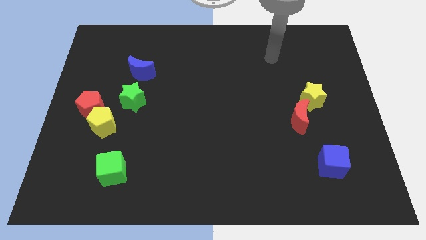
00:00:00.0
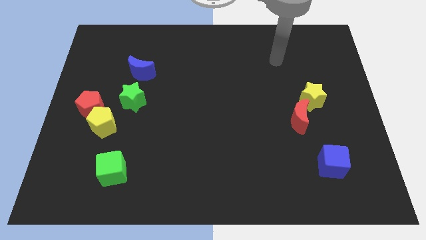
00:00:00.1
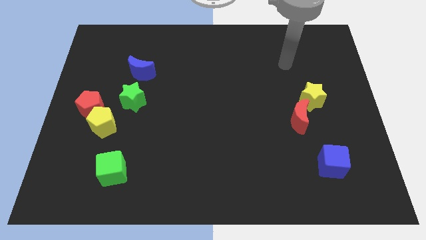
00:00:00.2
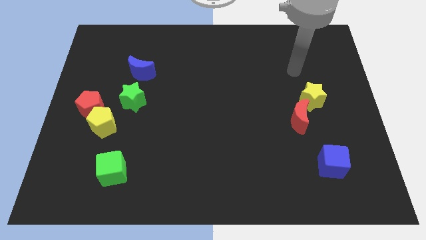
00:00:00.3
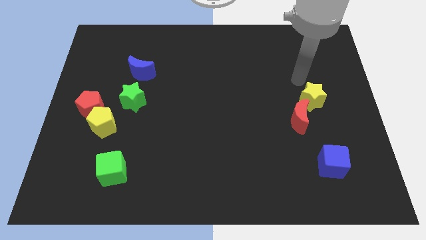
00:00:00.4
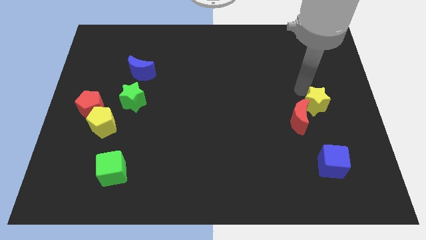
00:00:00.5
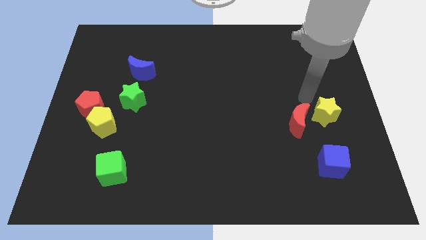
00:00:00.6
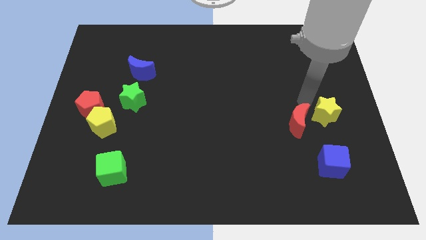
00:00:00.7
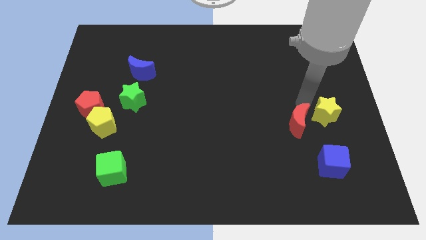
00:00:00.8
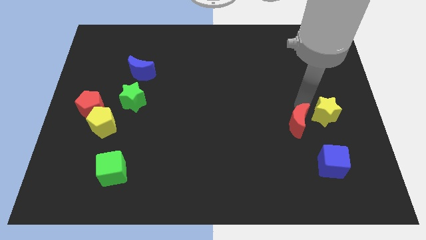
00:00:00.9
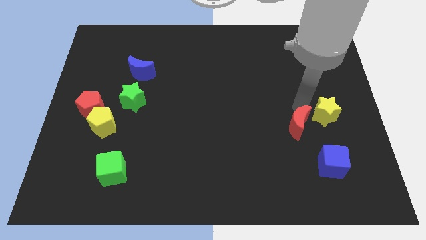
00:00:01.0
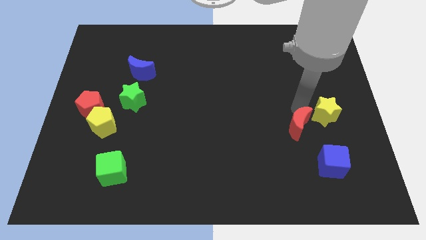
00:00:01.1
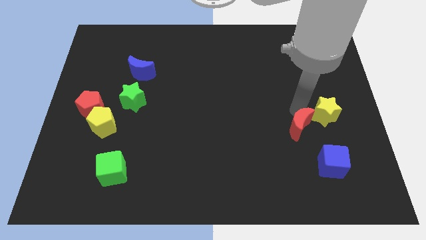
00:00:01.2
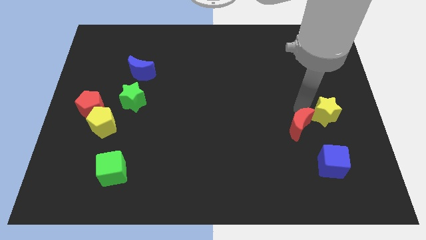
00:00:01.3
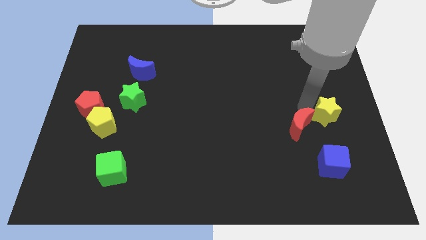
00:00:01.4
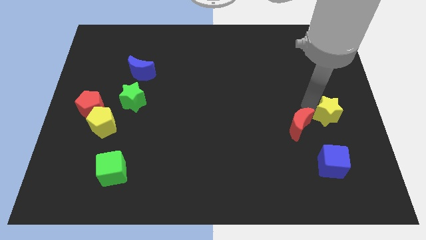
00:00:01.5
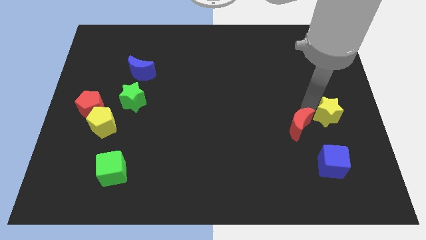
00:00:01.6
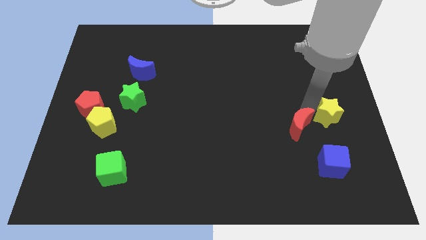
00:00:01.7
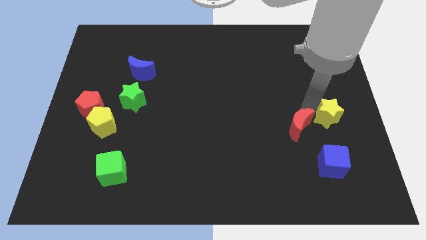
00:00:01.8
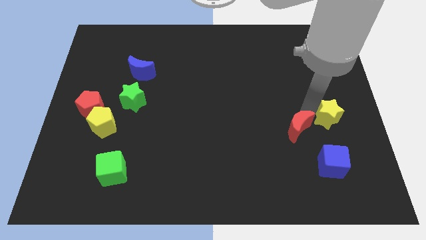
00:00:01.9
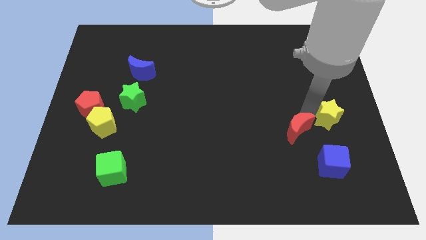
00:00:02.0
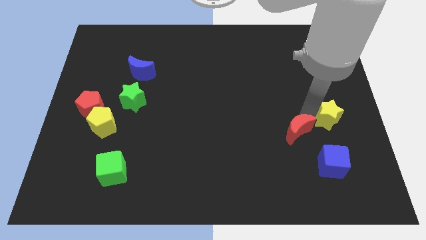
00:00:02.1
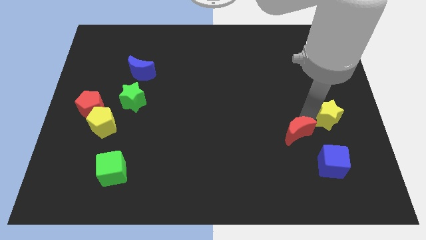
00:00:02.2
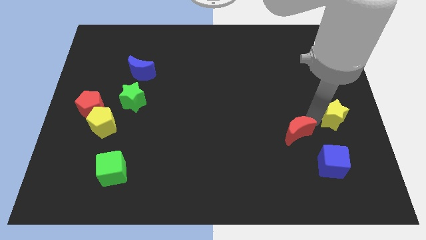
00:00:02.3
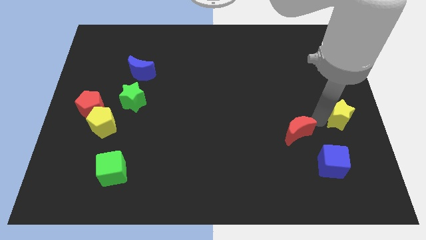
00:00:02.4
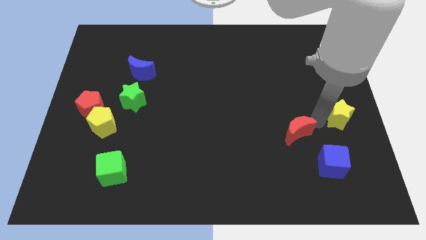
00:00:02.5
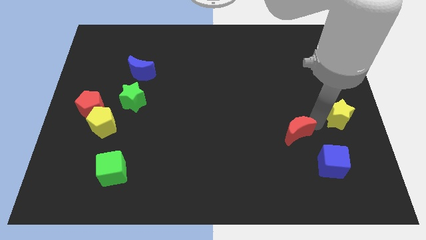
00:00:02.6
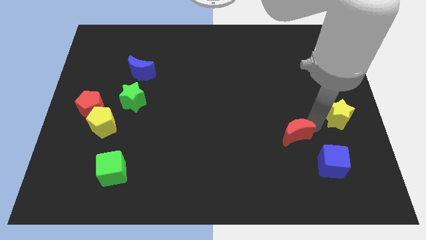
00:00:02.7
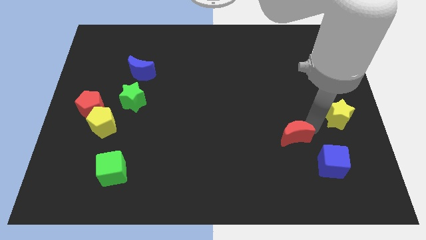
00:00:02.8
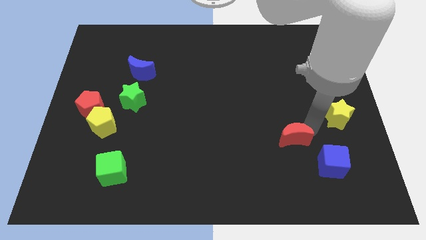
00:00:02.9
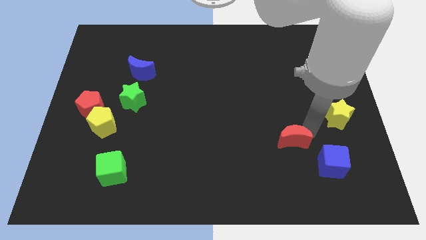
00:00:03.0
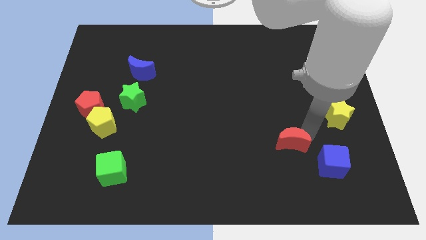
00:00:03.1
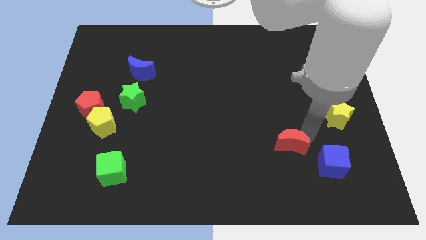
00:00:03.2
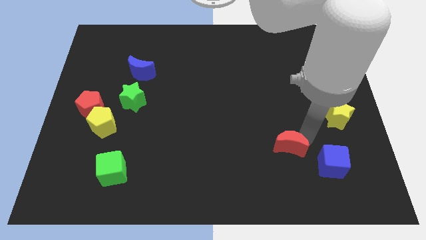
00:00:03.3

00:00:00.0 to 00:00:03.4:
move the red moon downwards and left somewhat

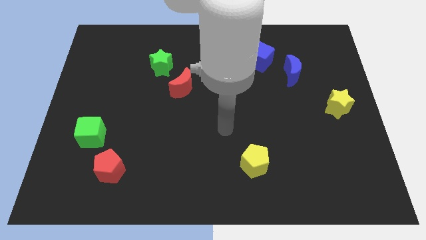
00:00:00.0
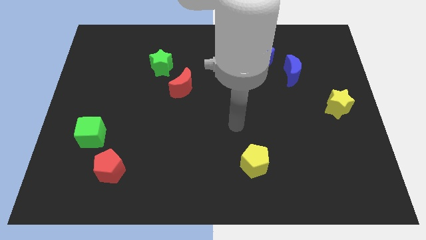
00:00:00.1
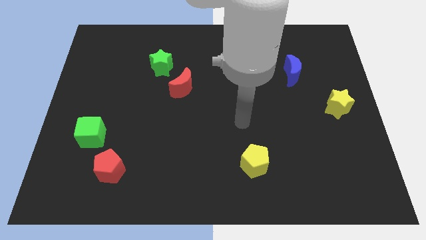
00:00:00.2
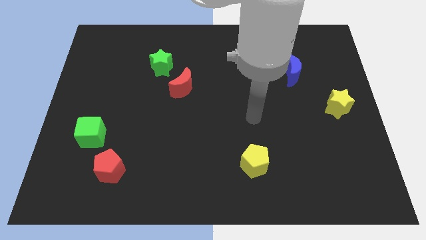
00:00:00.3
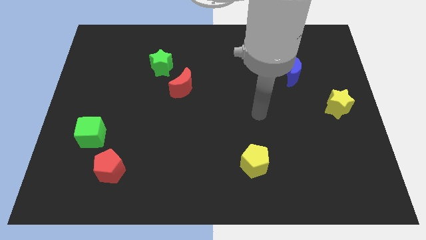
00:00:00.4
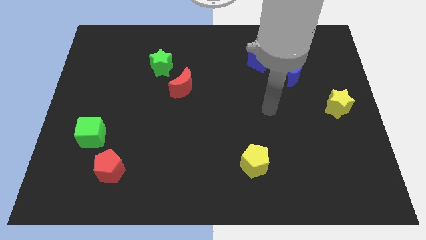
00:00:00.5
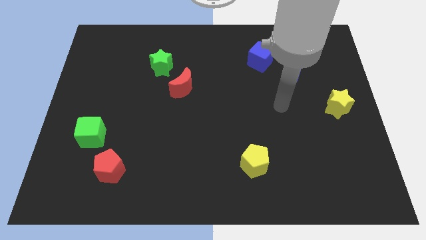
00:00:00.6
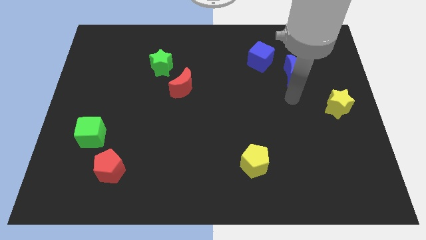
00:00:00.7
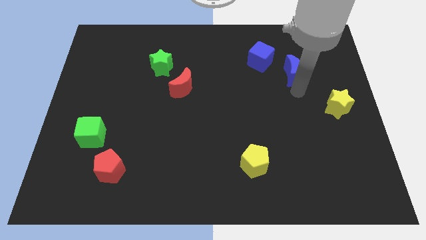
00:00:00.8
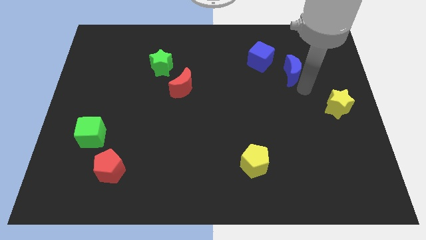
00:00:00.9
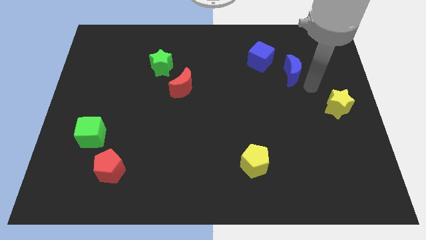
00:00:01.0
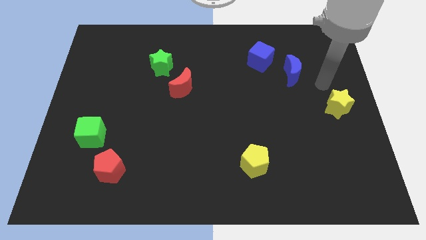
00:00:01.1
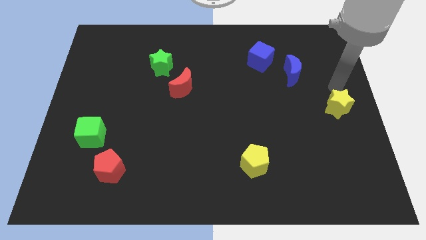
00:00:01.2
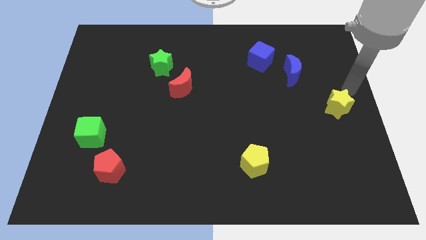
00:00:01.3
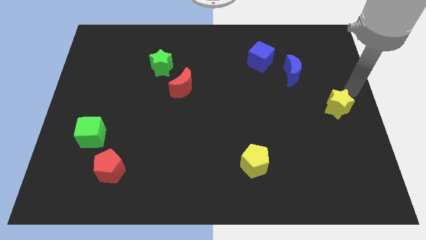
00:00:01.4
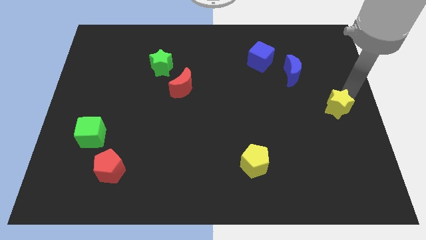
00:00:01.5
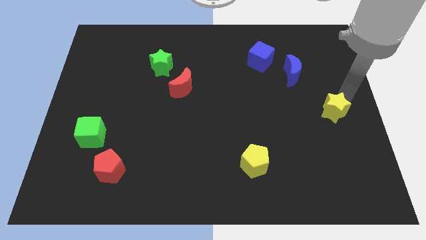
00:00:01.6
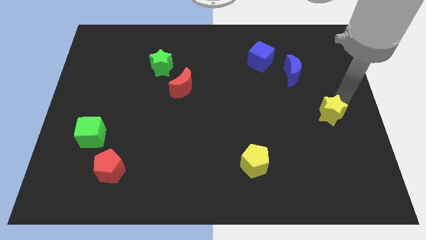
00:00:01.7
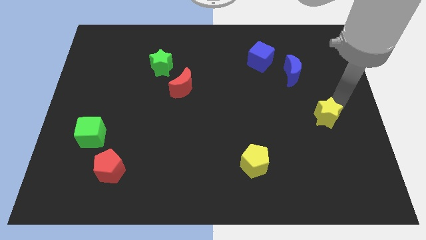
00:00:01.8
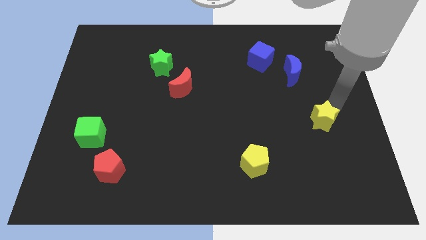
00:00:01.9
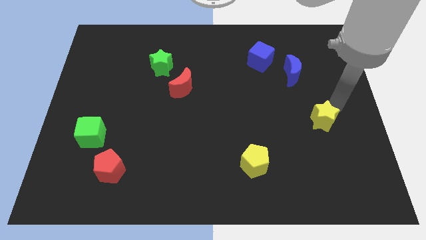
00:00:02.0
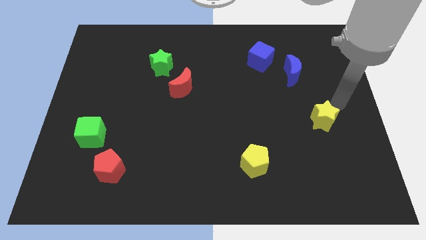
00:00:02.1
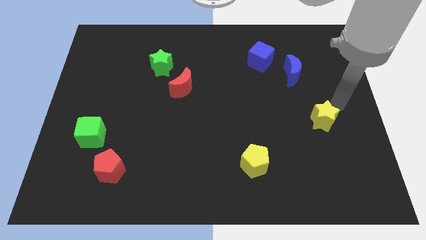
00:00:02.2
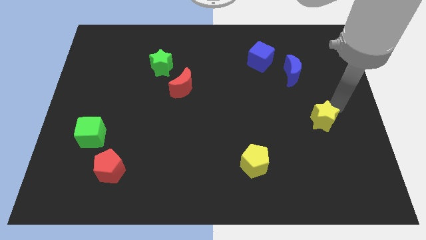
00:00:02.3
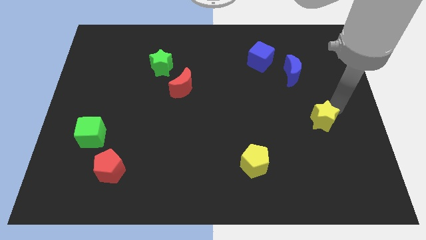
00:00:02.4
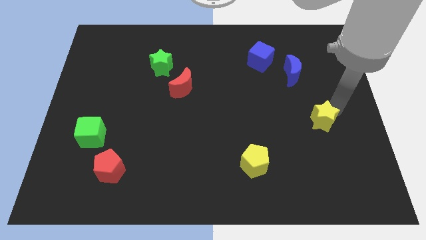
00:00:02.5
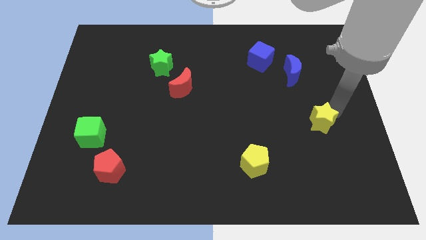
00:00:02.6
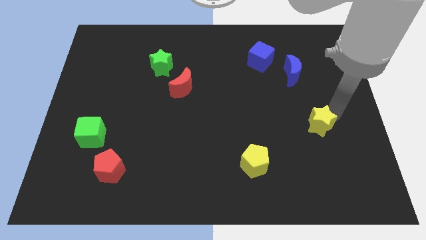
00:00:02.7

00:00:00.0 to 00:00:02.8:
move the yellow star slightly diagonally downwards and to the left

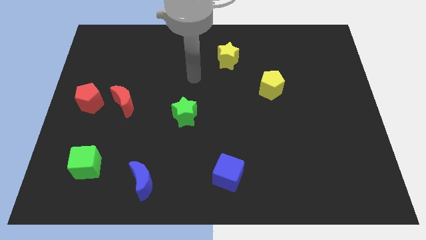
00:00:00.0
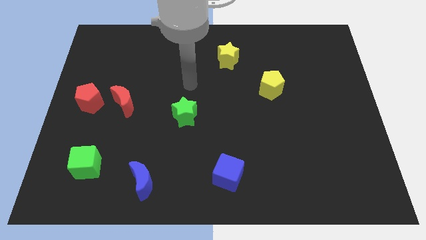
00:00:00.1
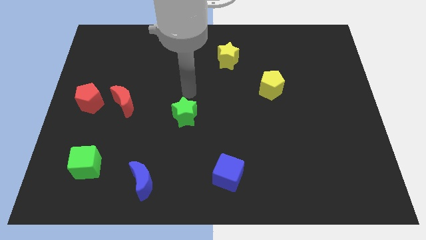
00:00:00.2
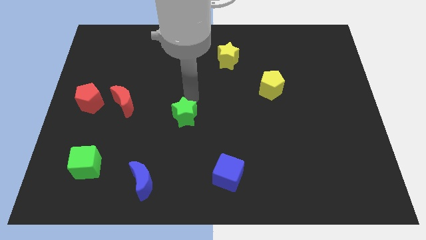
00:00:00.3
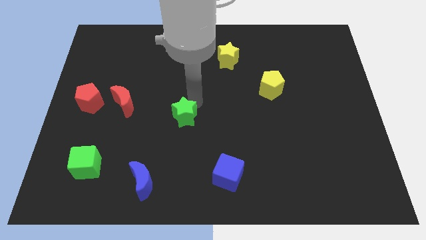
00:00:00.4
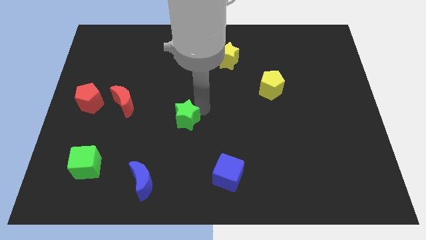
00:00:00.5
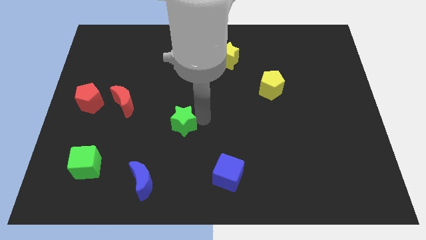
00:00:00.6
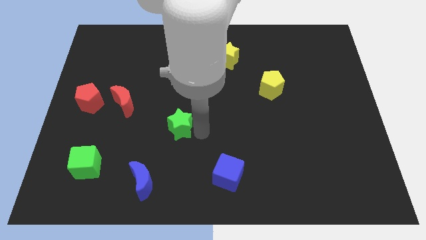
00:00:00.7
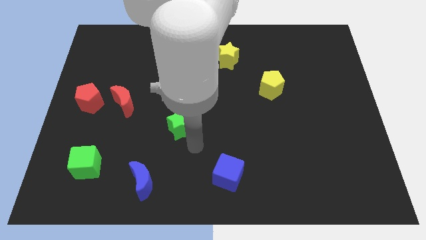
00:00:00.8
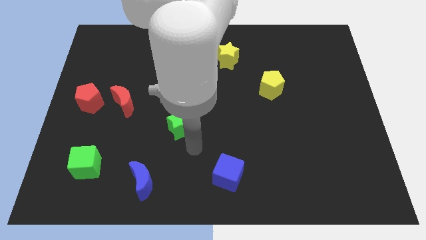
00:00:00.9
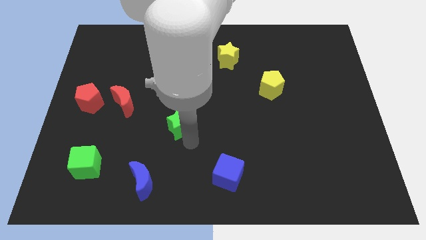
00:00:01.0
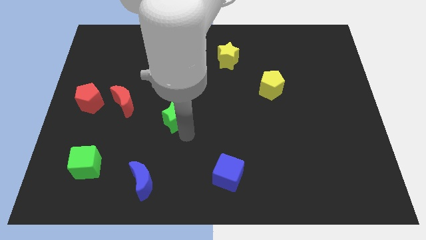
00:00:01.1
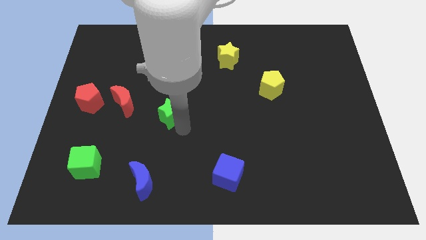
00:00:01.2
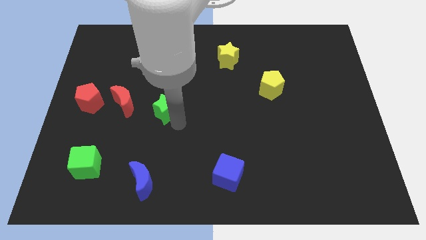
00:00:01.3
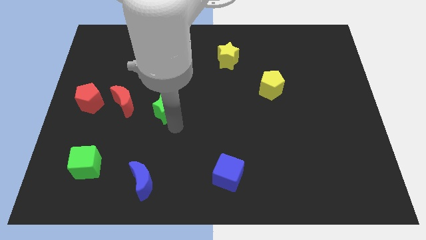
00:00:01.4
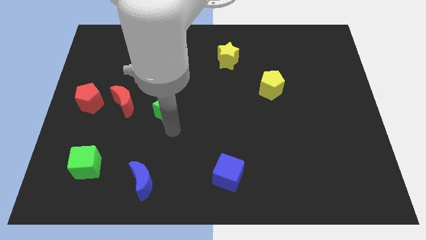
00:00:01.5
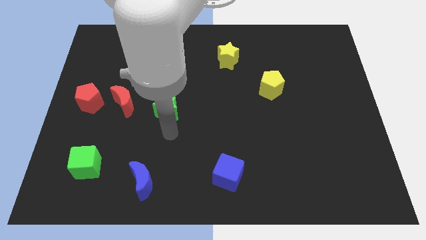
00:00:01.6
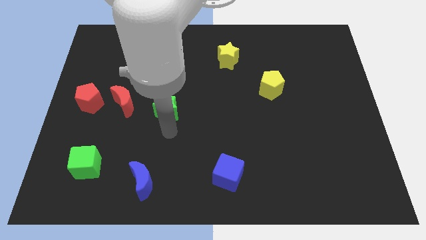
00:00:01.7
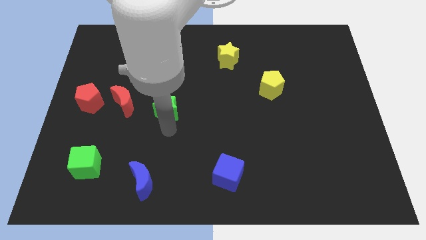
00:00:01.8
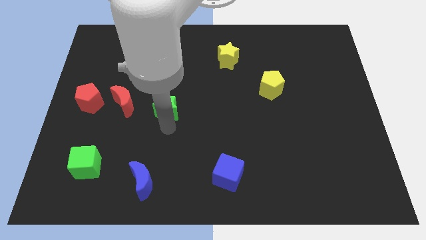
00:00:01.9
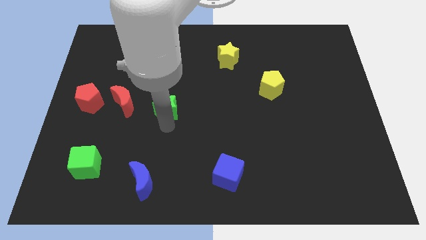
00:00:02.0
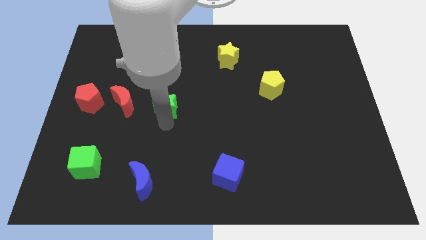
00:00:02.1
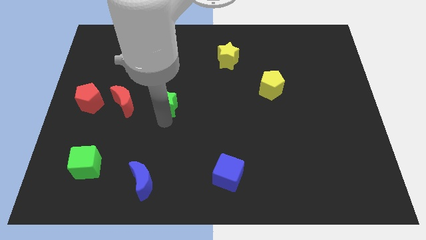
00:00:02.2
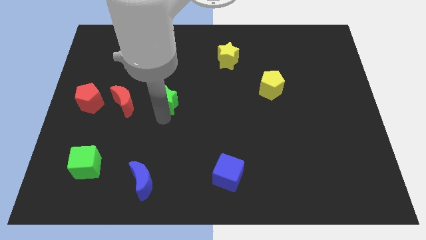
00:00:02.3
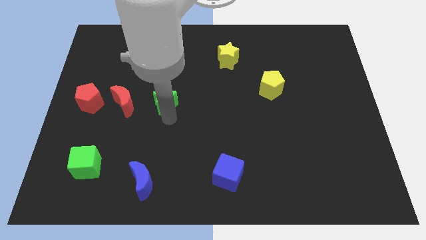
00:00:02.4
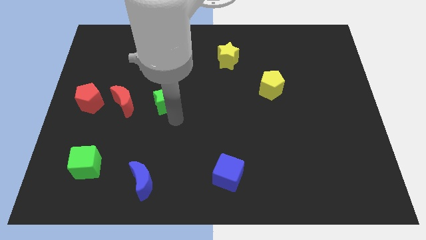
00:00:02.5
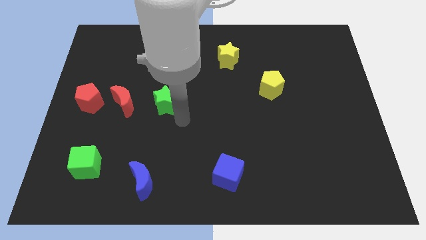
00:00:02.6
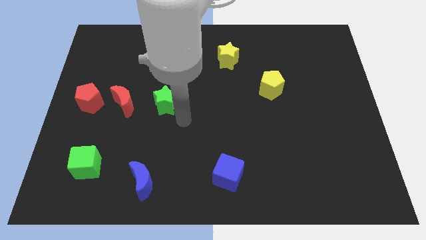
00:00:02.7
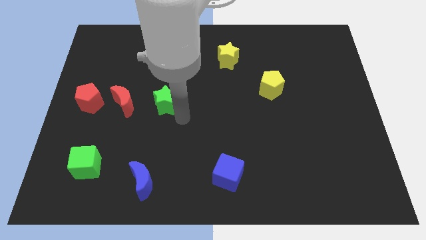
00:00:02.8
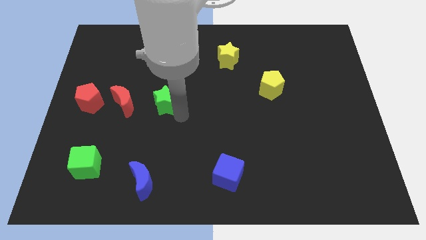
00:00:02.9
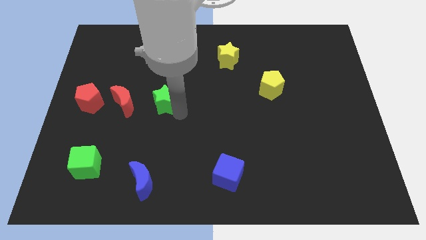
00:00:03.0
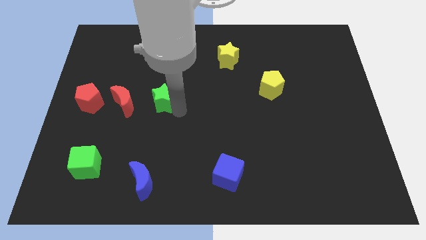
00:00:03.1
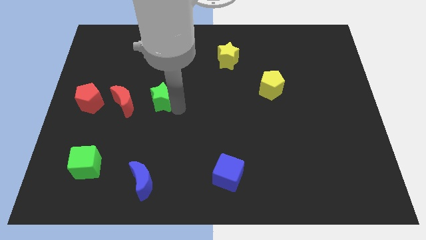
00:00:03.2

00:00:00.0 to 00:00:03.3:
move the green star slightly diagonally upwards and left
